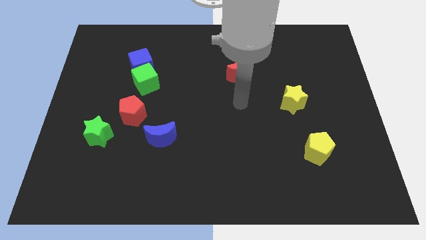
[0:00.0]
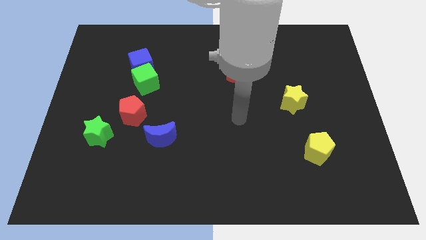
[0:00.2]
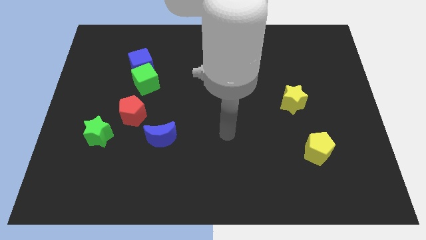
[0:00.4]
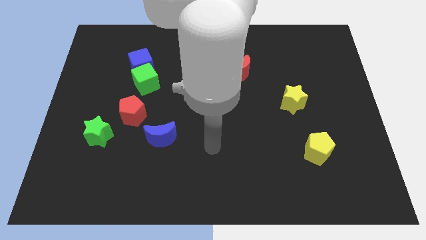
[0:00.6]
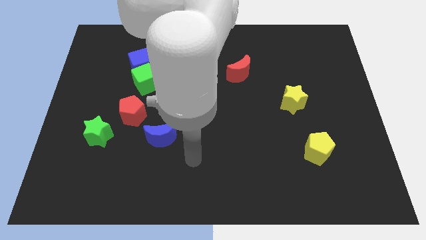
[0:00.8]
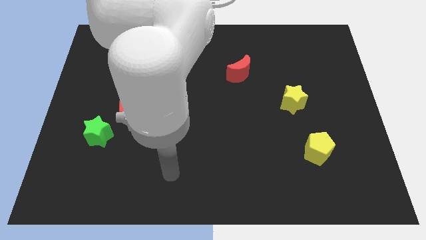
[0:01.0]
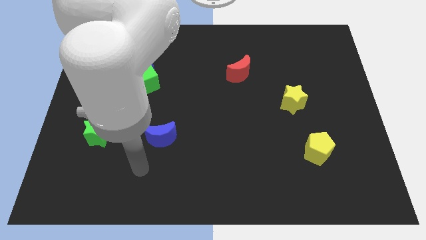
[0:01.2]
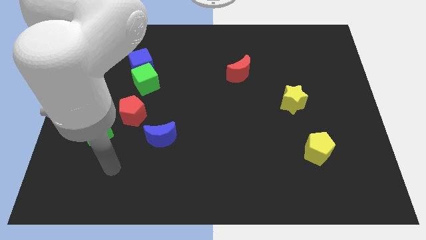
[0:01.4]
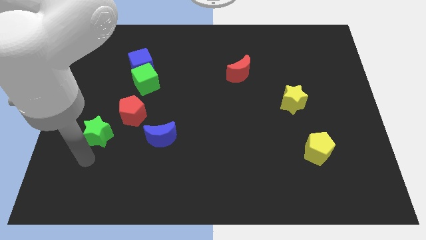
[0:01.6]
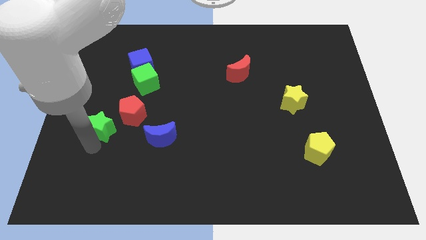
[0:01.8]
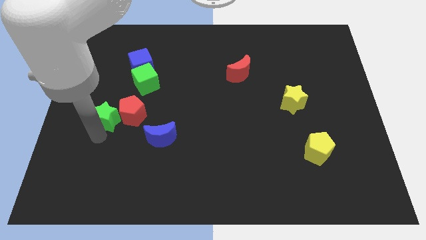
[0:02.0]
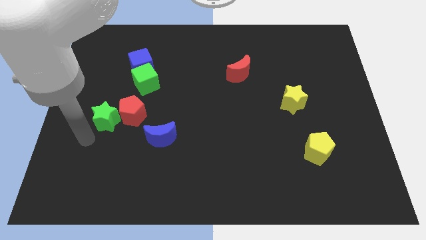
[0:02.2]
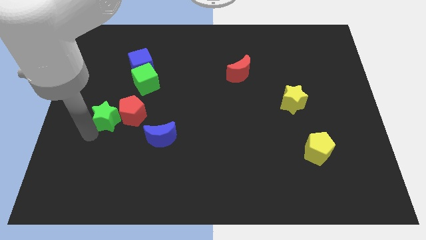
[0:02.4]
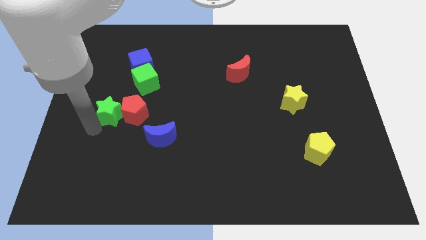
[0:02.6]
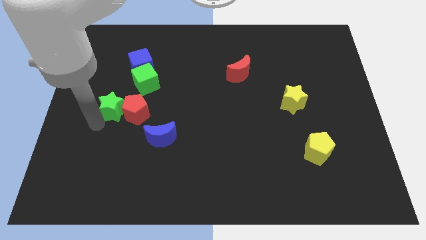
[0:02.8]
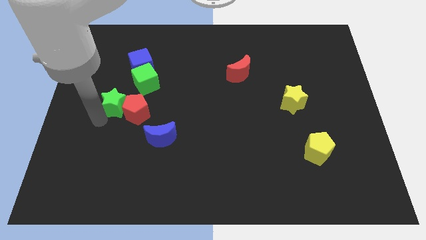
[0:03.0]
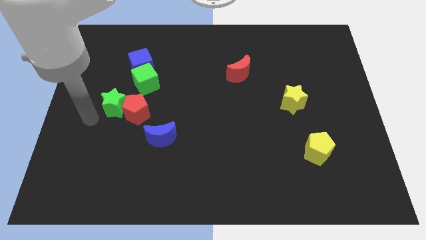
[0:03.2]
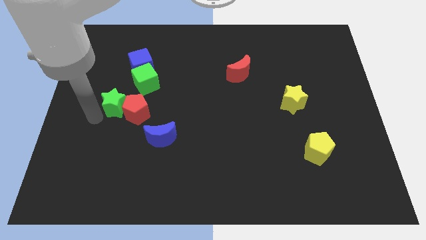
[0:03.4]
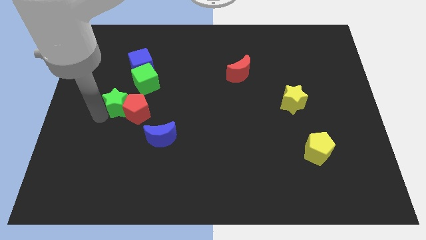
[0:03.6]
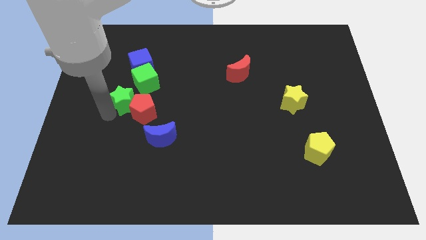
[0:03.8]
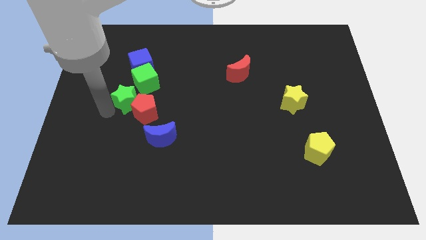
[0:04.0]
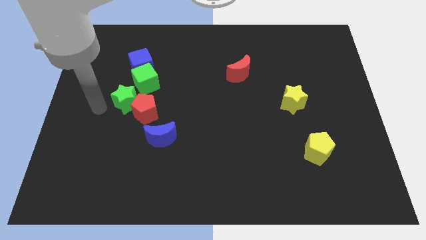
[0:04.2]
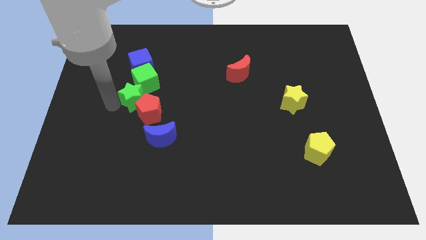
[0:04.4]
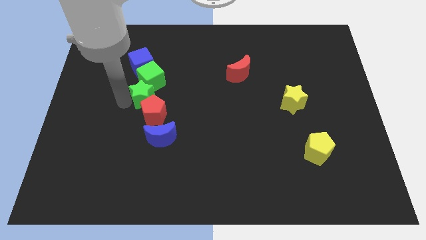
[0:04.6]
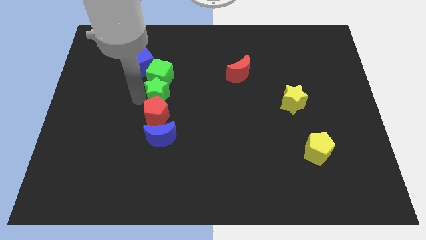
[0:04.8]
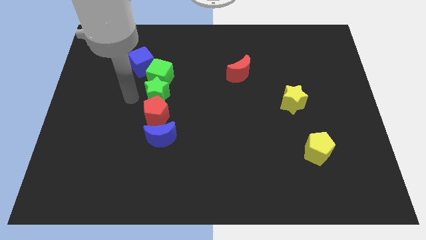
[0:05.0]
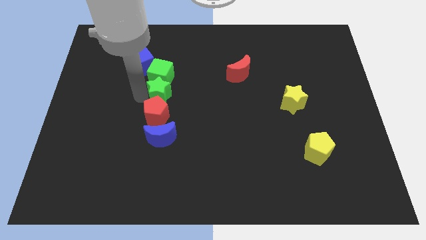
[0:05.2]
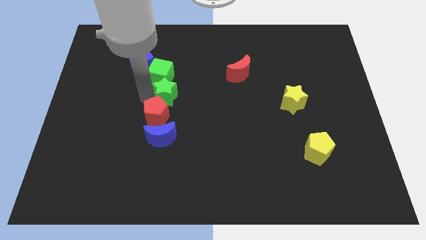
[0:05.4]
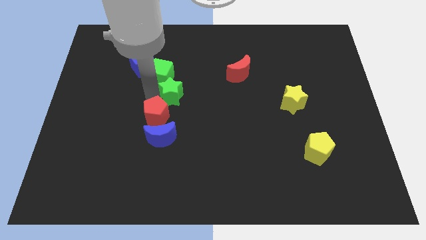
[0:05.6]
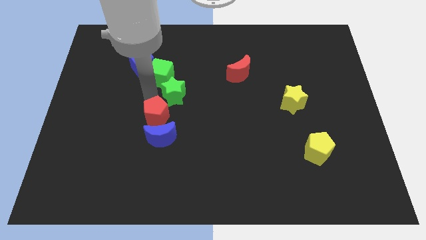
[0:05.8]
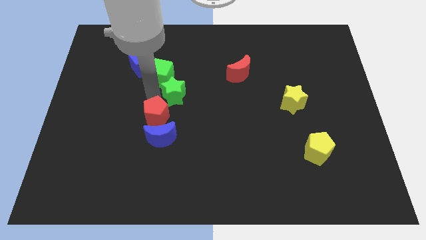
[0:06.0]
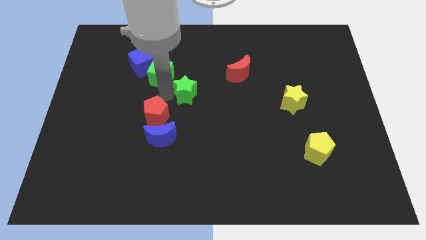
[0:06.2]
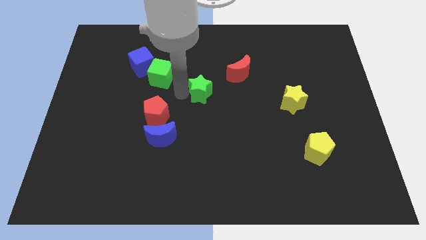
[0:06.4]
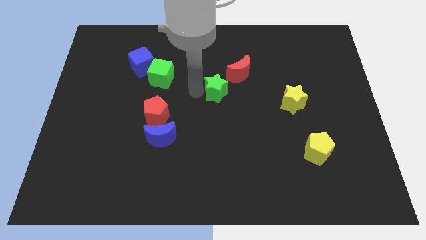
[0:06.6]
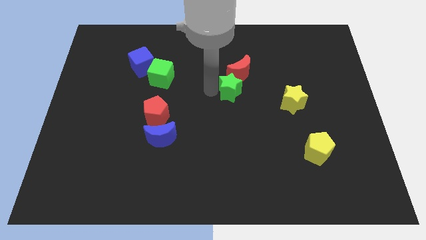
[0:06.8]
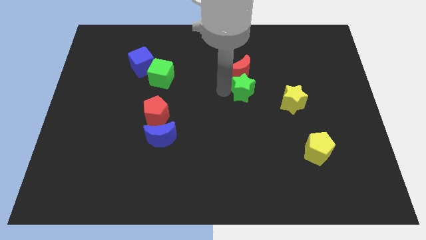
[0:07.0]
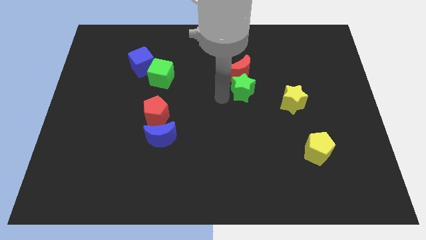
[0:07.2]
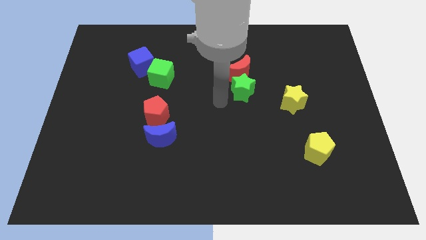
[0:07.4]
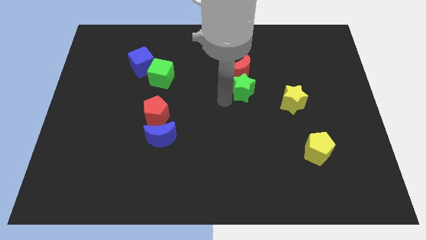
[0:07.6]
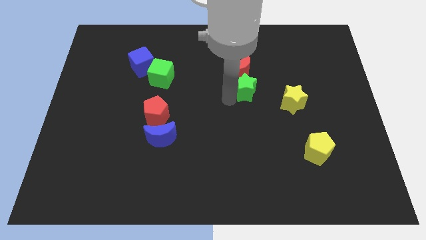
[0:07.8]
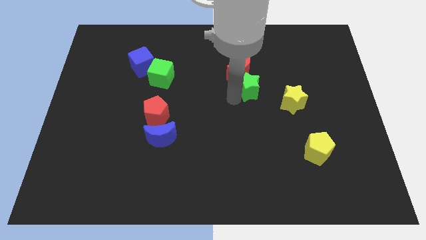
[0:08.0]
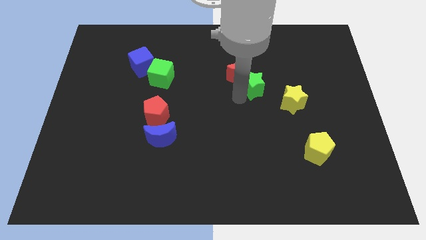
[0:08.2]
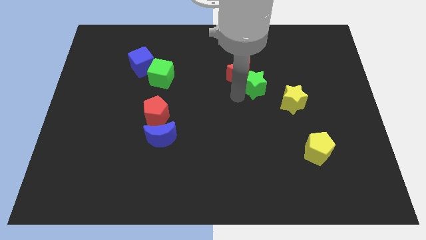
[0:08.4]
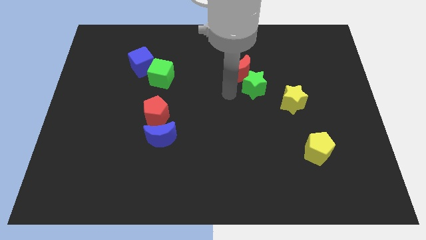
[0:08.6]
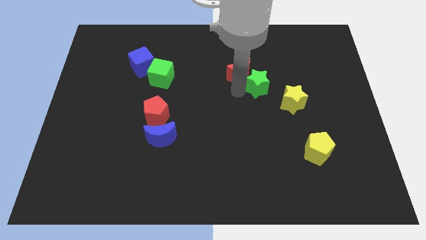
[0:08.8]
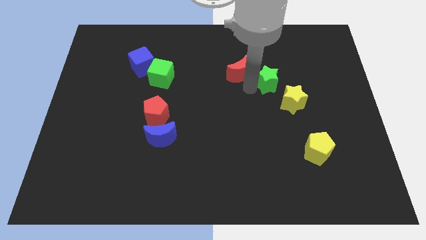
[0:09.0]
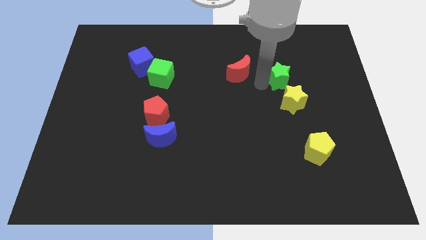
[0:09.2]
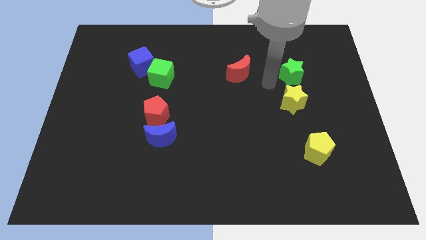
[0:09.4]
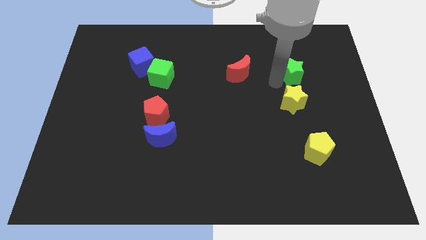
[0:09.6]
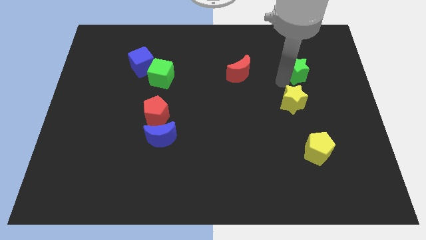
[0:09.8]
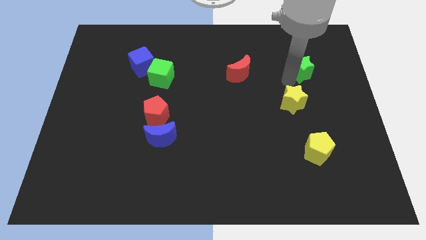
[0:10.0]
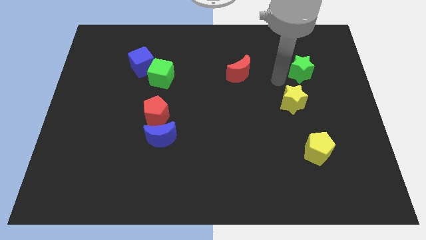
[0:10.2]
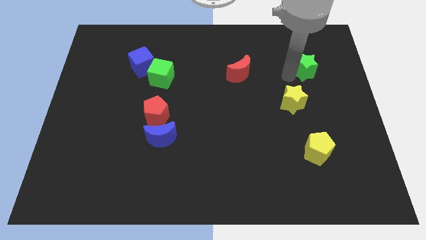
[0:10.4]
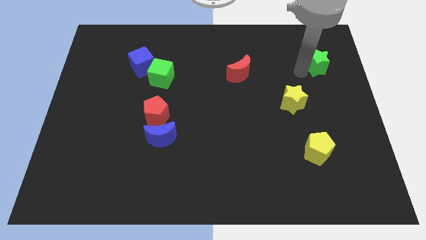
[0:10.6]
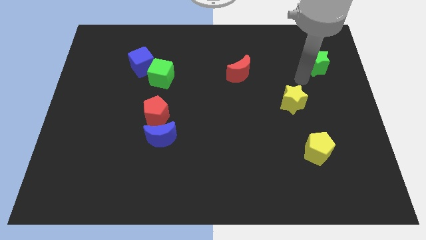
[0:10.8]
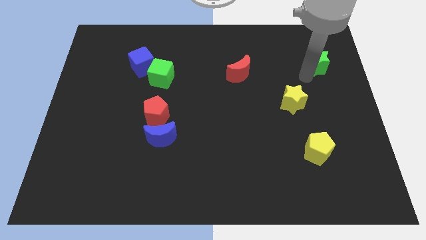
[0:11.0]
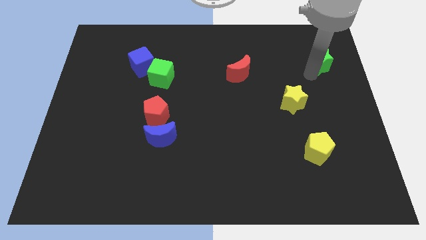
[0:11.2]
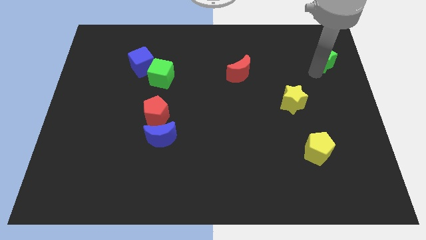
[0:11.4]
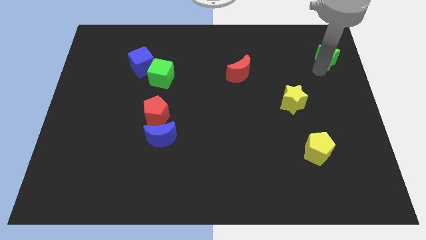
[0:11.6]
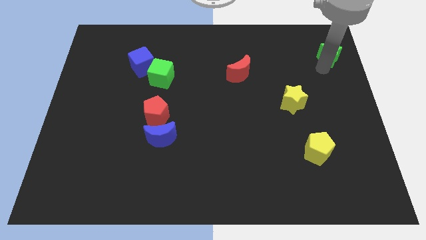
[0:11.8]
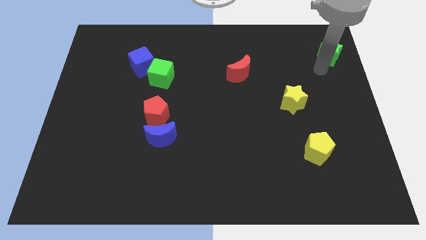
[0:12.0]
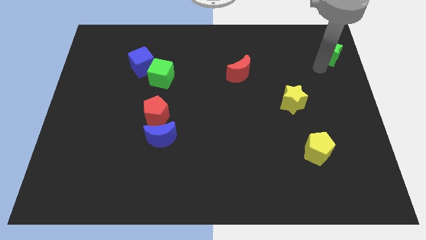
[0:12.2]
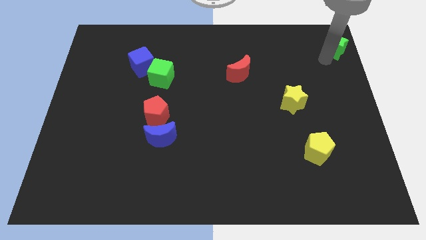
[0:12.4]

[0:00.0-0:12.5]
push the green star to the upper right corner

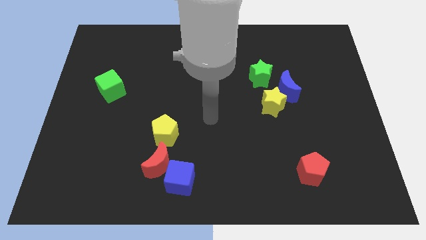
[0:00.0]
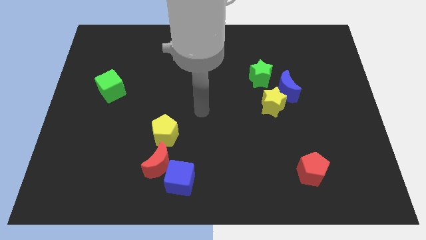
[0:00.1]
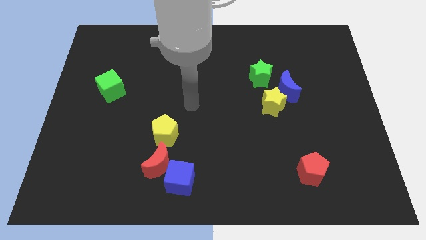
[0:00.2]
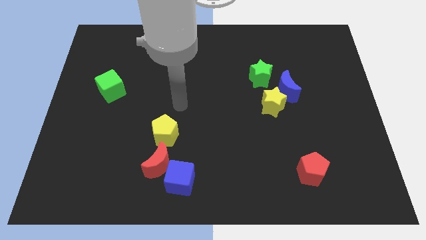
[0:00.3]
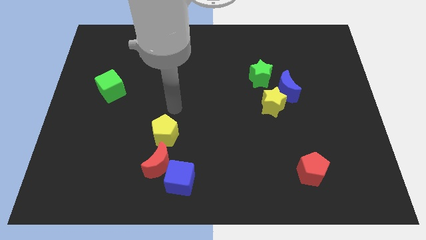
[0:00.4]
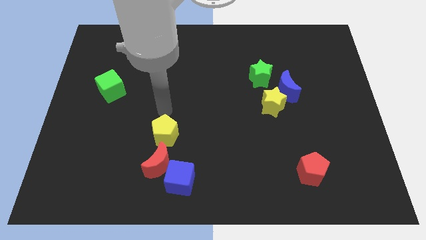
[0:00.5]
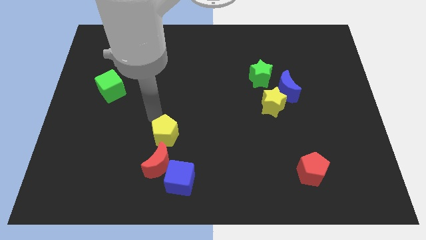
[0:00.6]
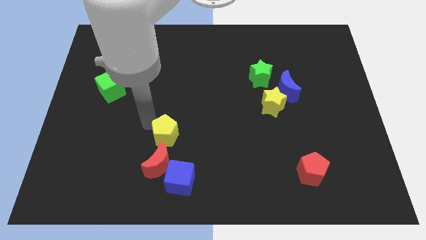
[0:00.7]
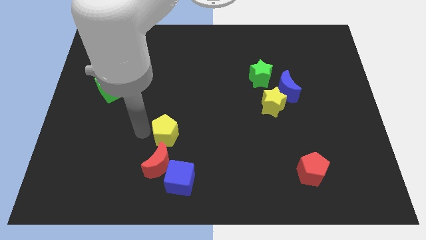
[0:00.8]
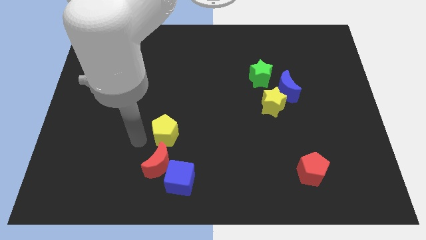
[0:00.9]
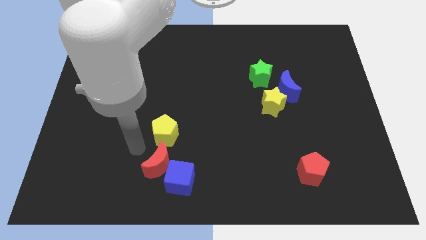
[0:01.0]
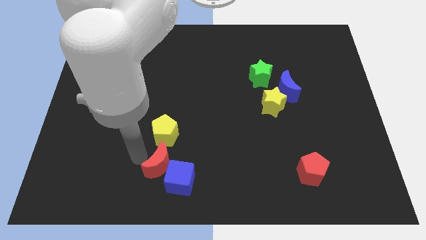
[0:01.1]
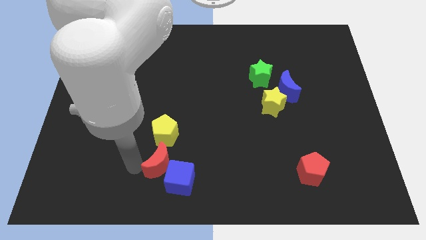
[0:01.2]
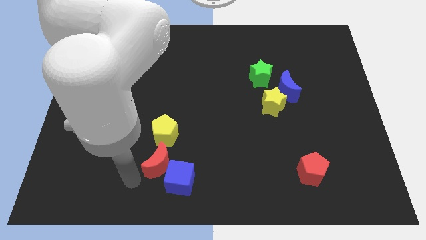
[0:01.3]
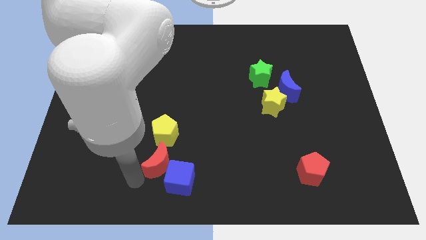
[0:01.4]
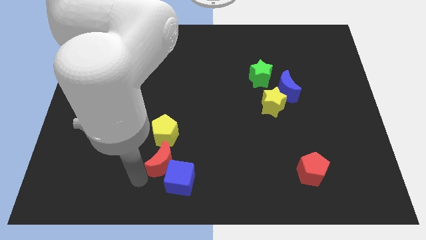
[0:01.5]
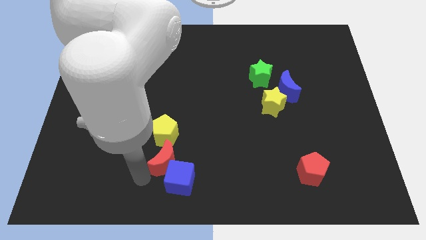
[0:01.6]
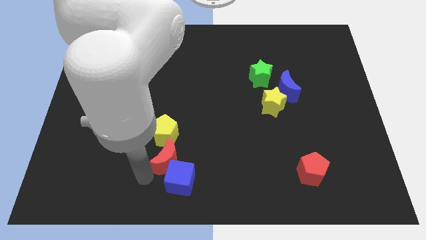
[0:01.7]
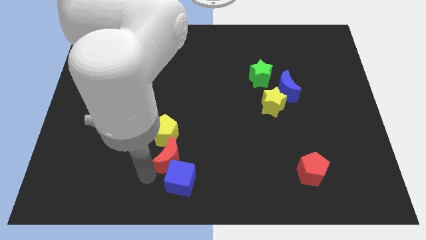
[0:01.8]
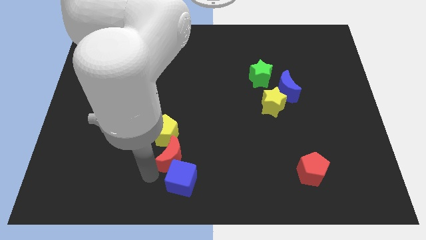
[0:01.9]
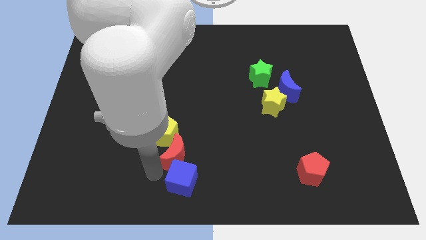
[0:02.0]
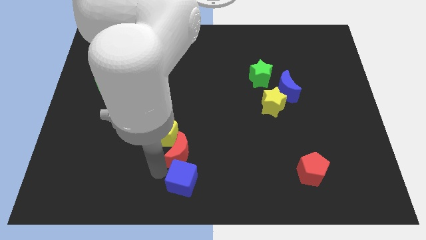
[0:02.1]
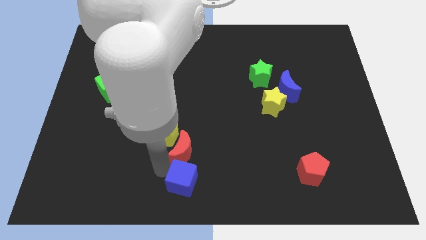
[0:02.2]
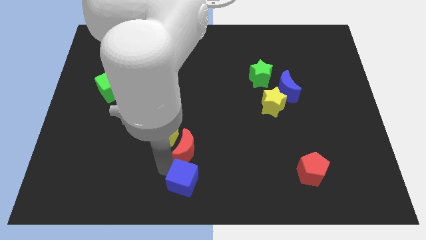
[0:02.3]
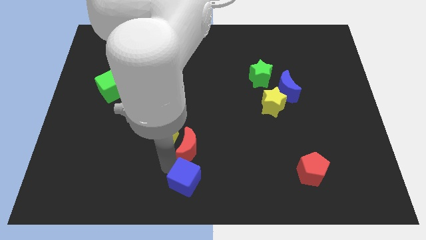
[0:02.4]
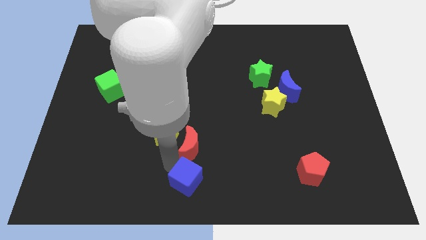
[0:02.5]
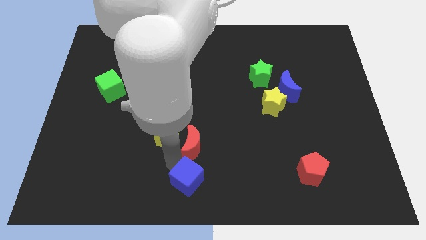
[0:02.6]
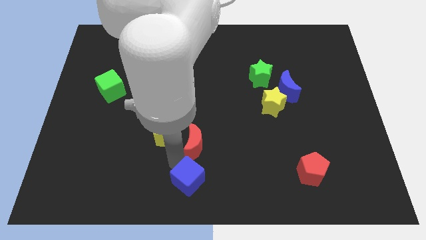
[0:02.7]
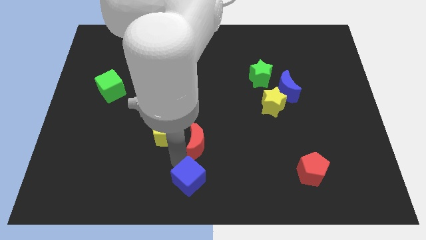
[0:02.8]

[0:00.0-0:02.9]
move the red moon to the middle
